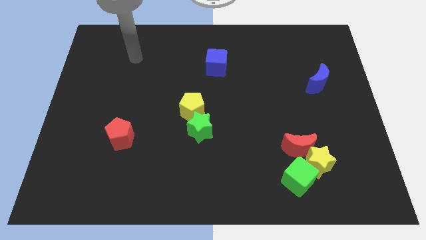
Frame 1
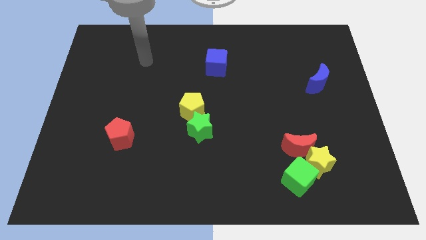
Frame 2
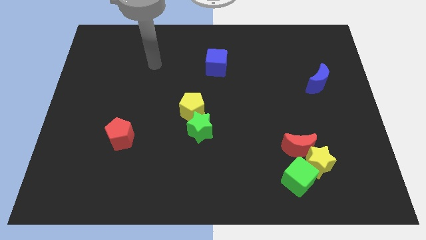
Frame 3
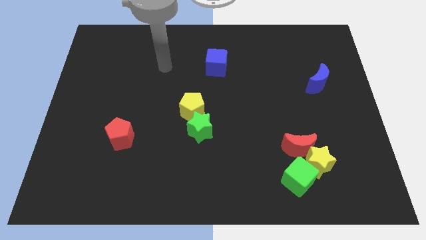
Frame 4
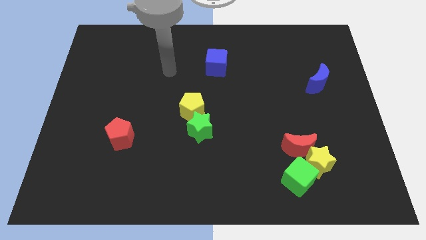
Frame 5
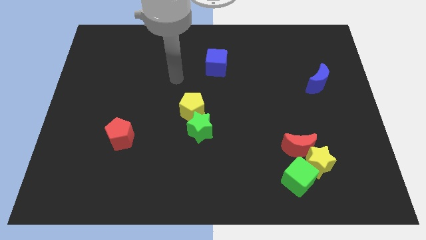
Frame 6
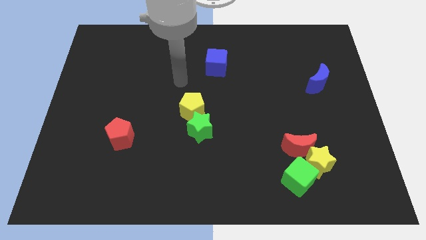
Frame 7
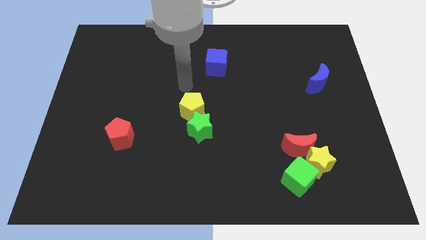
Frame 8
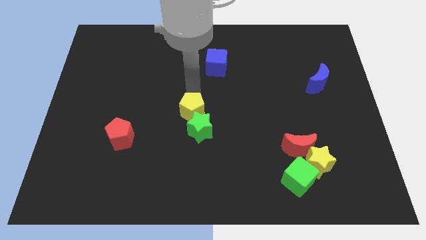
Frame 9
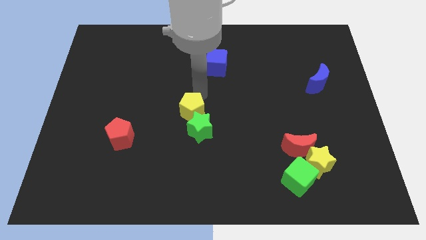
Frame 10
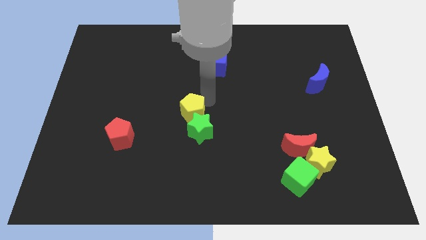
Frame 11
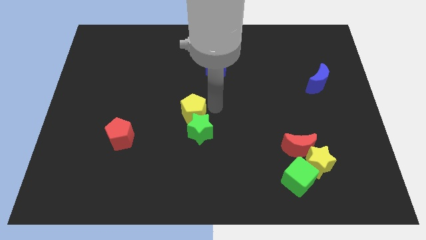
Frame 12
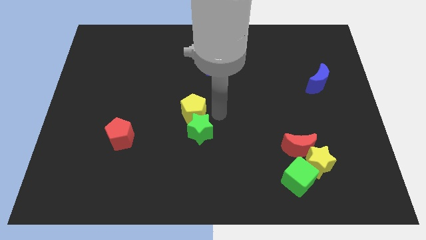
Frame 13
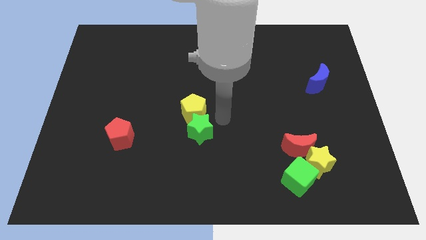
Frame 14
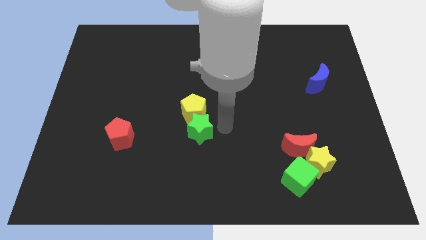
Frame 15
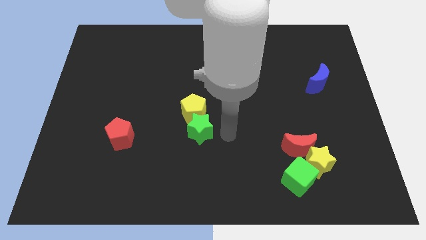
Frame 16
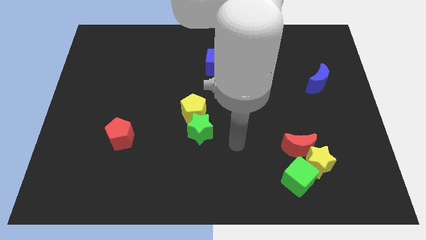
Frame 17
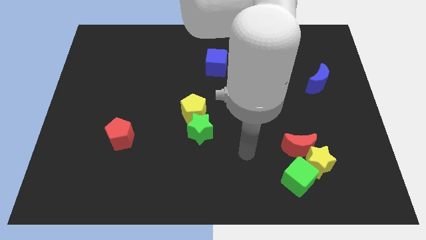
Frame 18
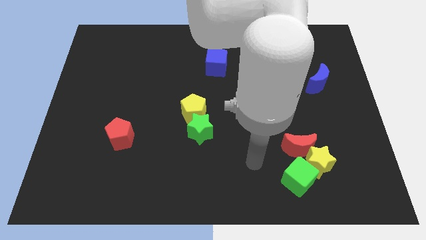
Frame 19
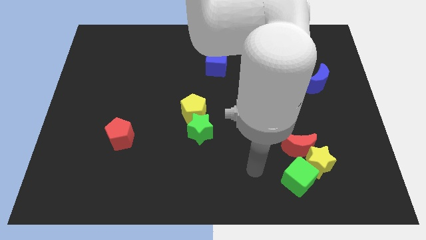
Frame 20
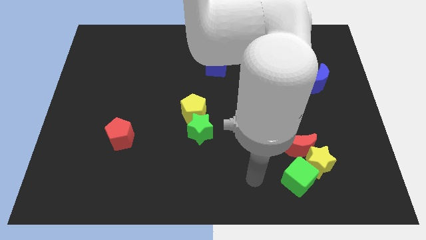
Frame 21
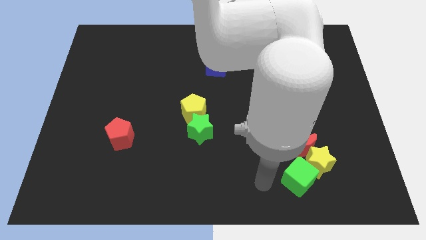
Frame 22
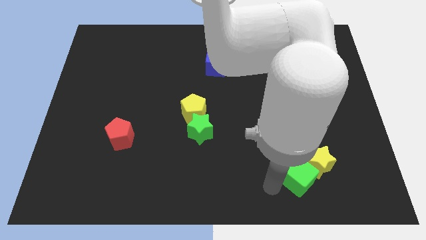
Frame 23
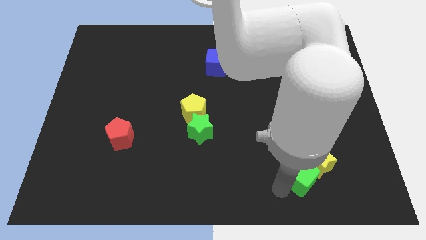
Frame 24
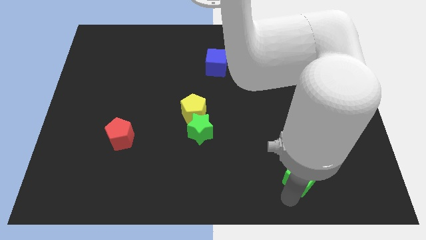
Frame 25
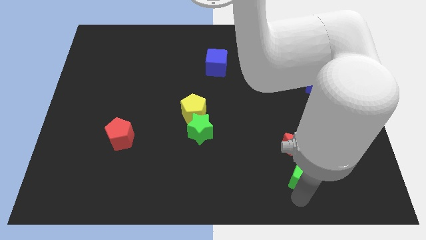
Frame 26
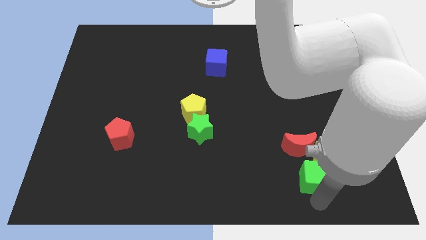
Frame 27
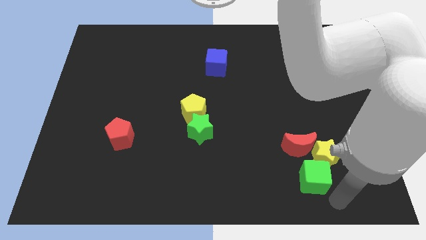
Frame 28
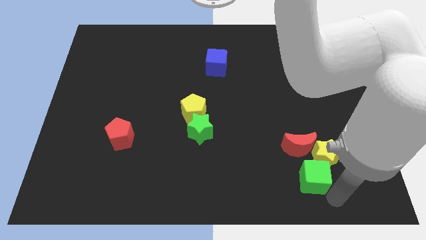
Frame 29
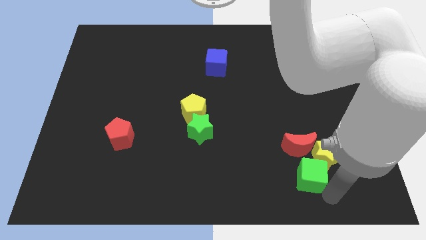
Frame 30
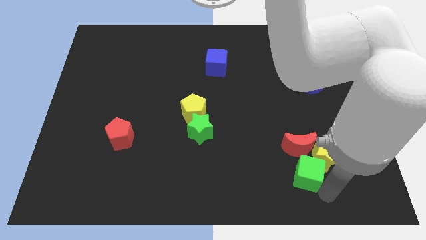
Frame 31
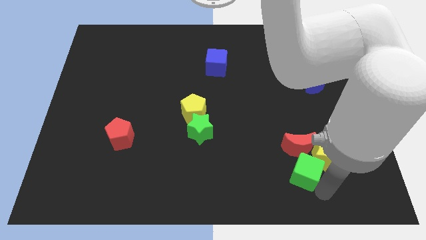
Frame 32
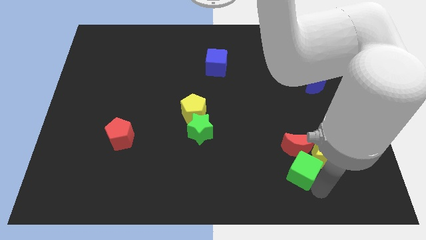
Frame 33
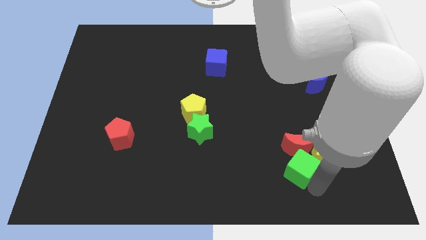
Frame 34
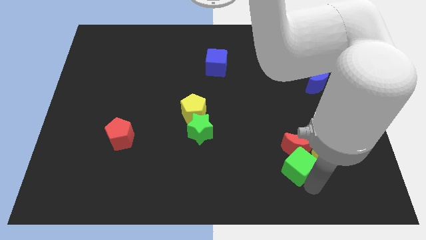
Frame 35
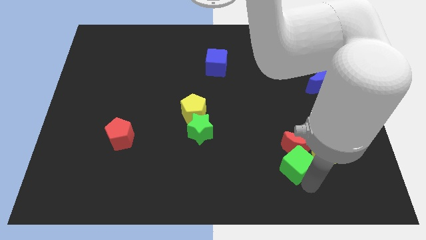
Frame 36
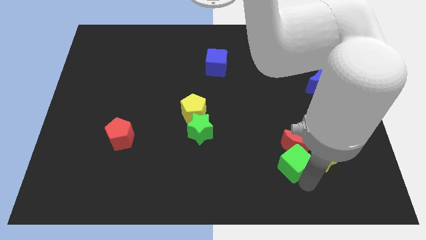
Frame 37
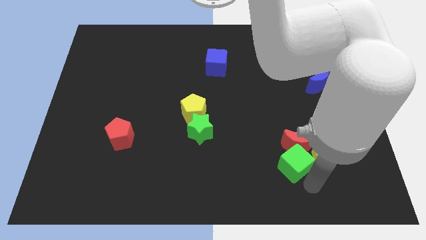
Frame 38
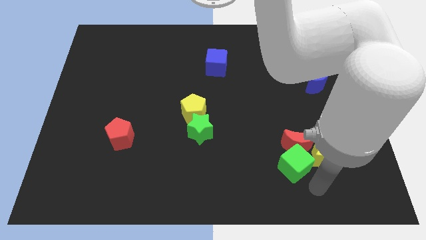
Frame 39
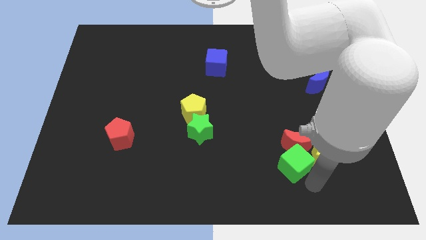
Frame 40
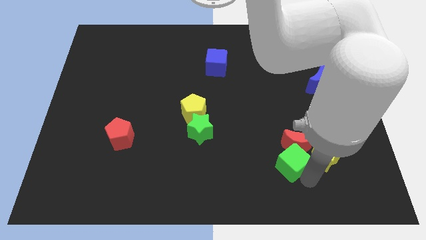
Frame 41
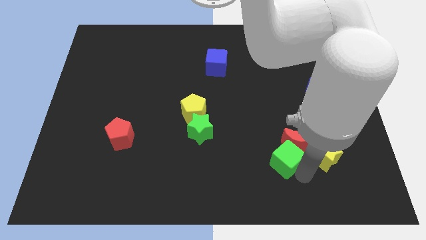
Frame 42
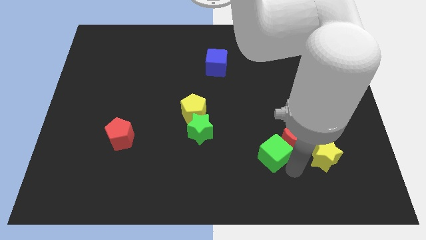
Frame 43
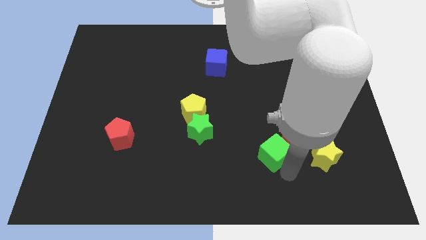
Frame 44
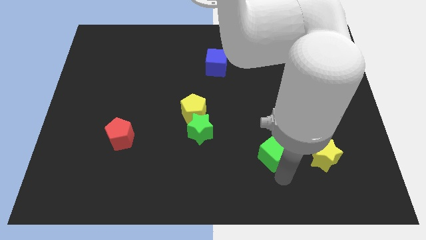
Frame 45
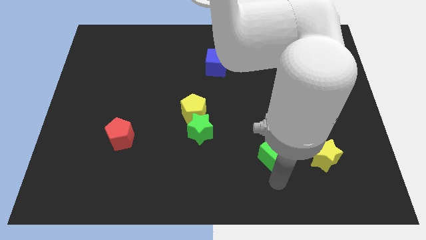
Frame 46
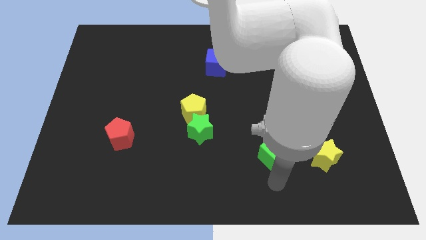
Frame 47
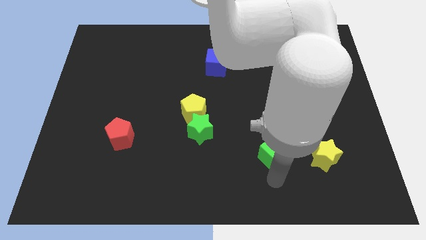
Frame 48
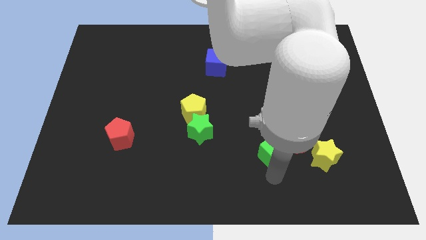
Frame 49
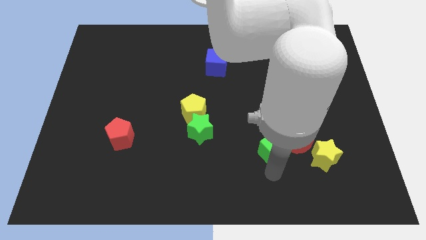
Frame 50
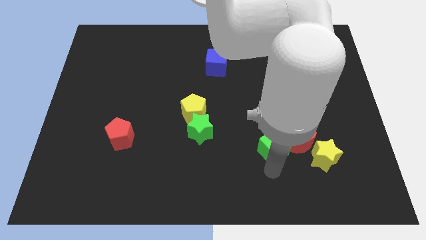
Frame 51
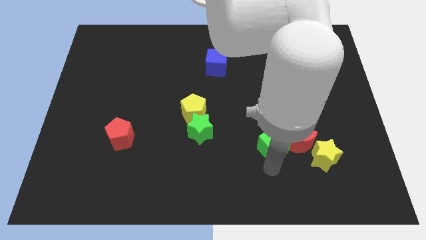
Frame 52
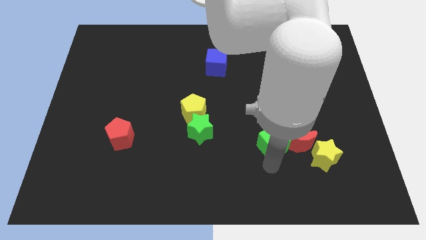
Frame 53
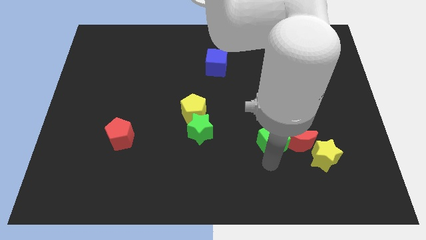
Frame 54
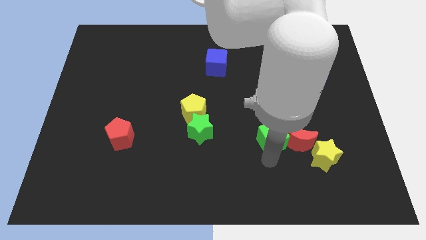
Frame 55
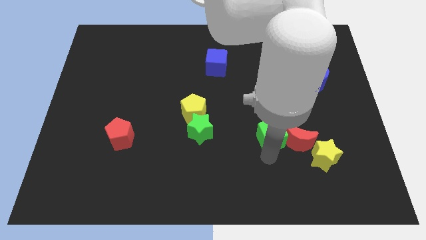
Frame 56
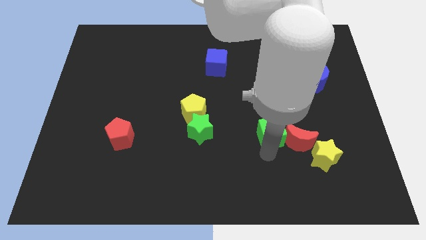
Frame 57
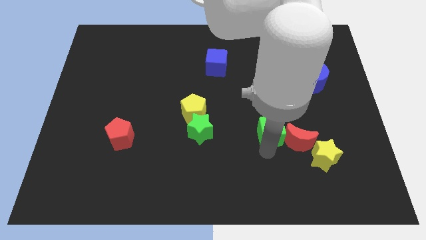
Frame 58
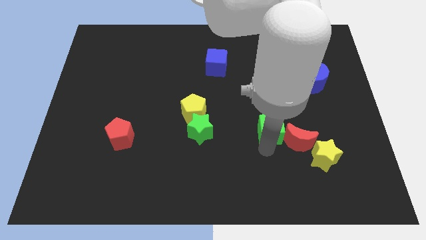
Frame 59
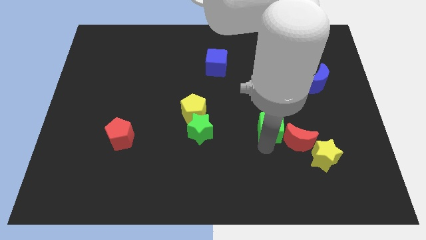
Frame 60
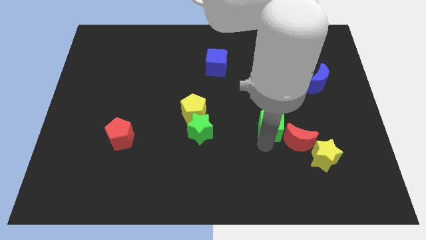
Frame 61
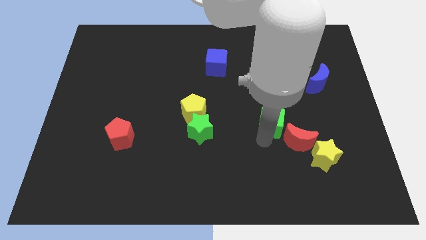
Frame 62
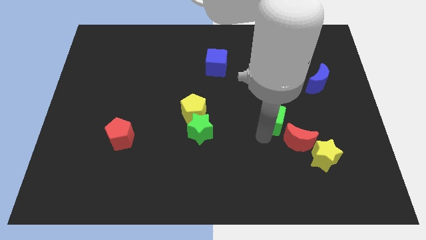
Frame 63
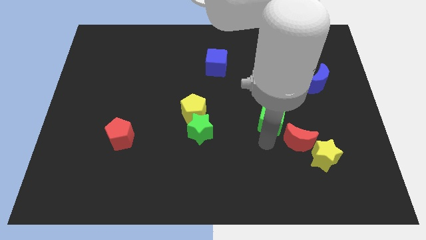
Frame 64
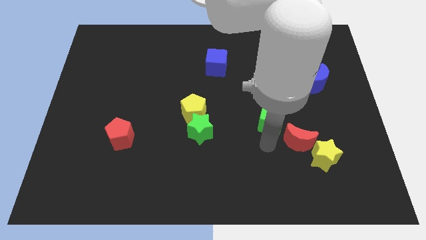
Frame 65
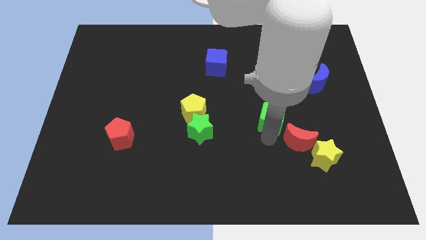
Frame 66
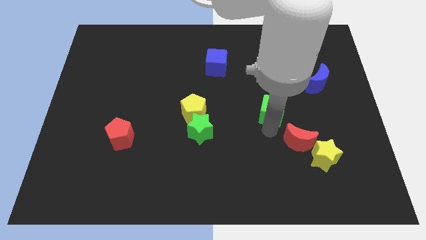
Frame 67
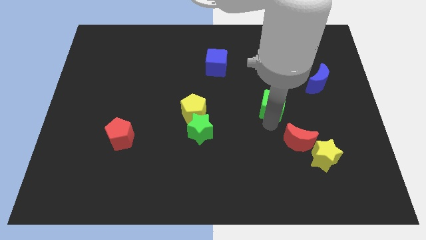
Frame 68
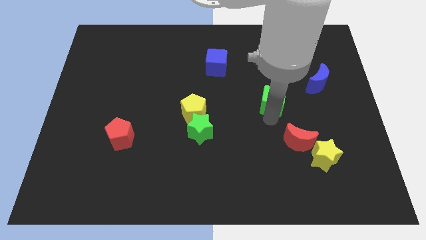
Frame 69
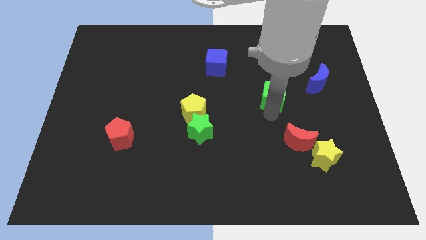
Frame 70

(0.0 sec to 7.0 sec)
slide the green cube upwards

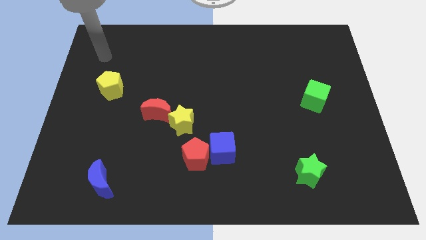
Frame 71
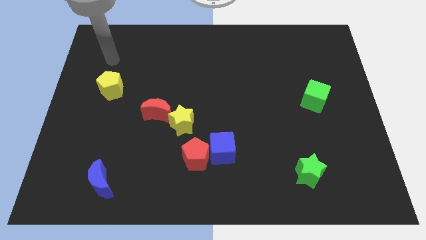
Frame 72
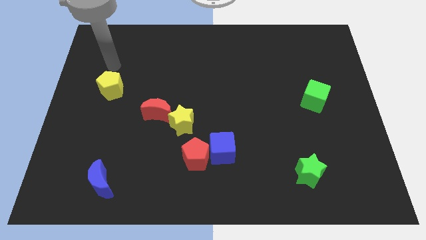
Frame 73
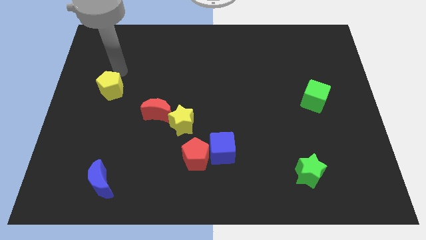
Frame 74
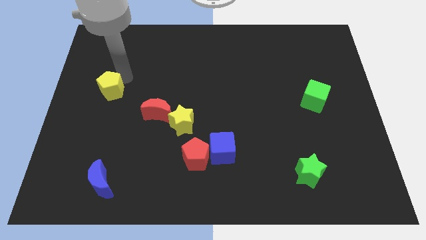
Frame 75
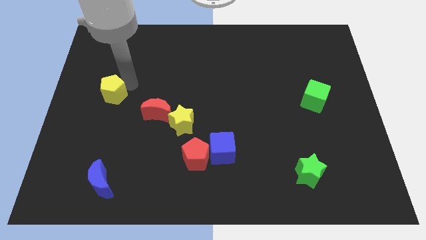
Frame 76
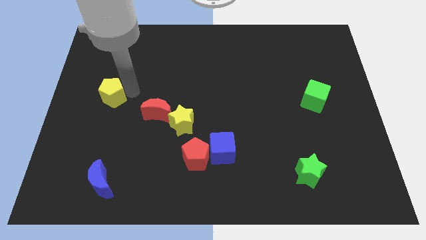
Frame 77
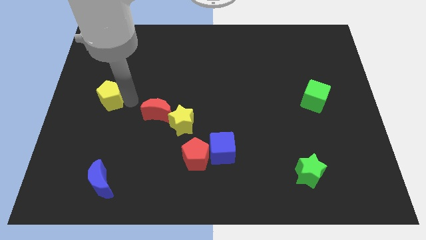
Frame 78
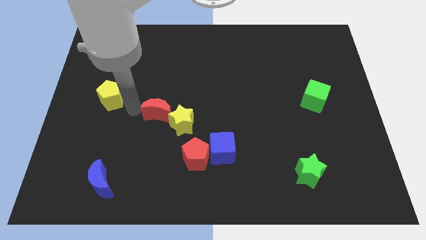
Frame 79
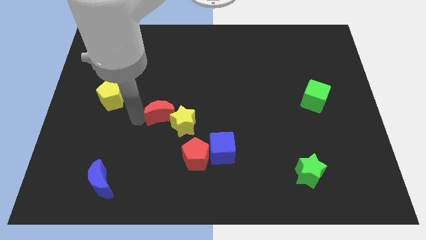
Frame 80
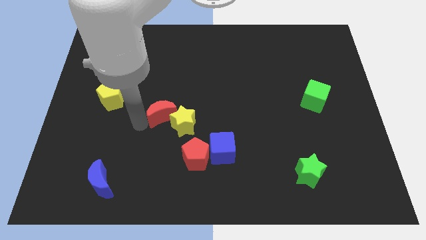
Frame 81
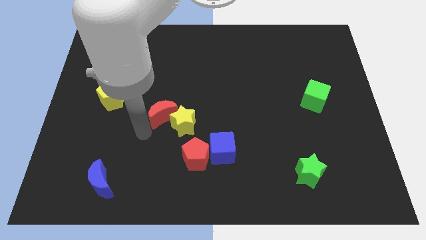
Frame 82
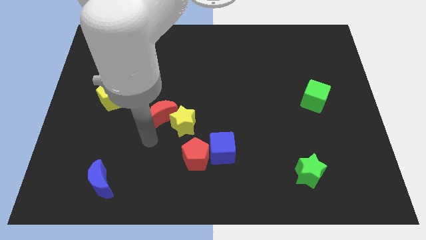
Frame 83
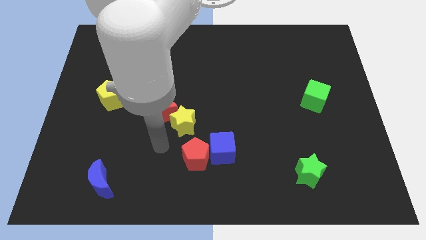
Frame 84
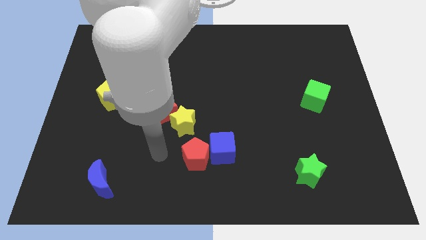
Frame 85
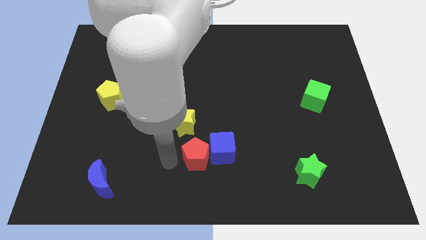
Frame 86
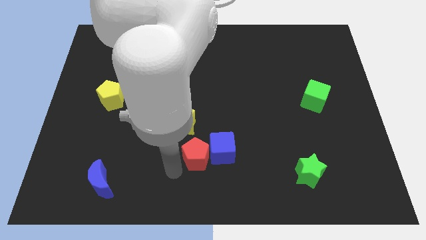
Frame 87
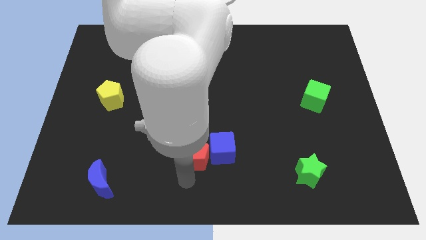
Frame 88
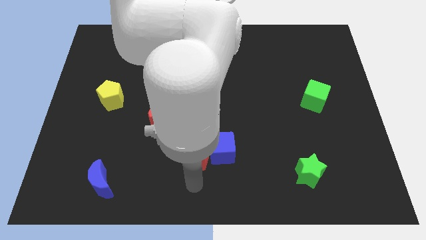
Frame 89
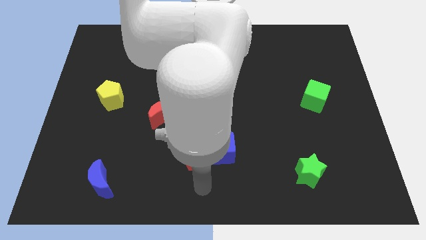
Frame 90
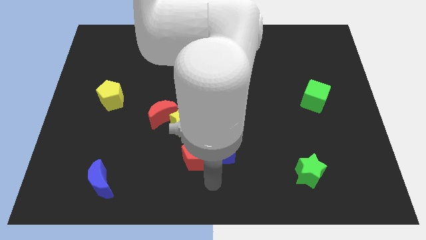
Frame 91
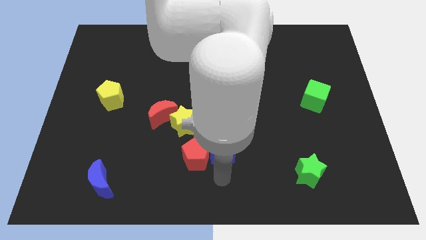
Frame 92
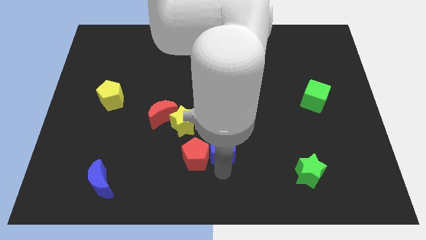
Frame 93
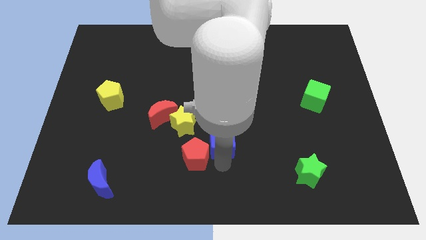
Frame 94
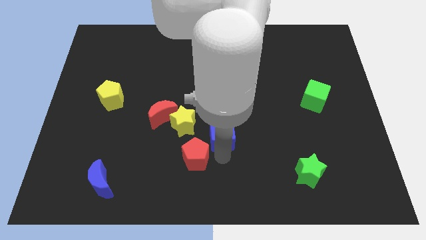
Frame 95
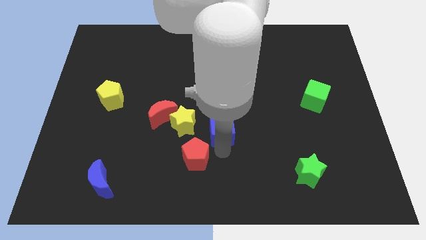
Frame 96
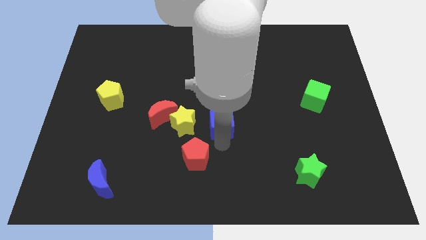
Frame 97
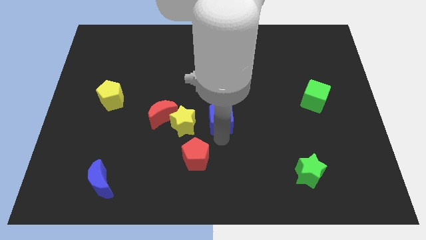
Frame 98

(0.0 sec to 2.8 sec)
slightly slide the blue cube upwards
